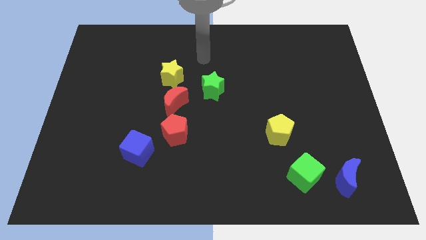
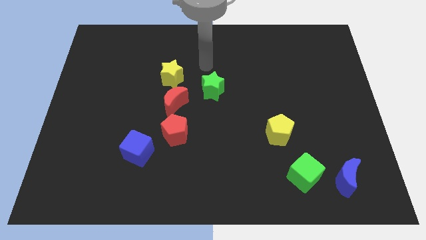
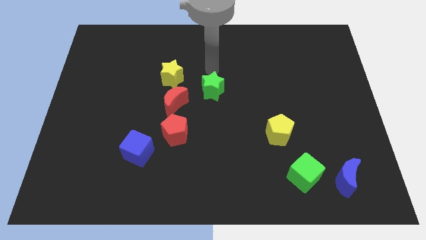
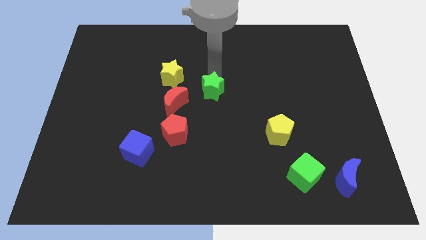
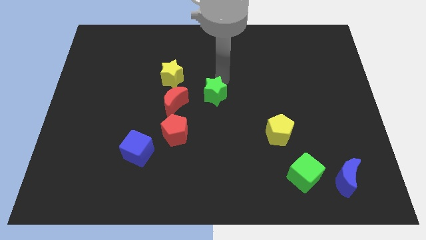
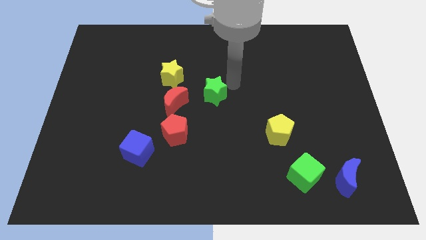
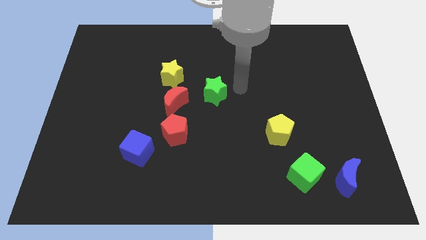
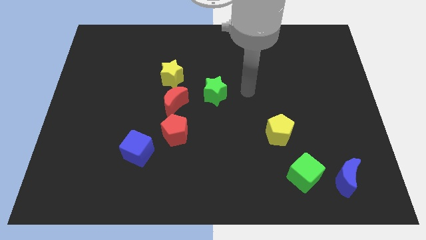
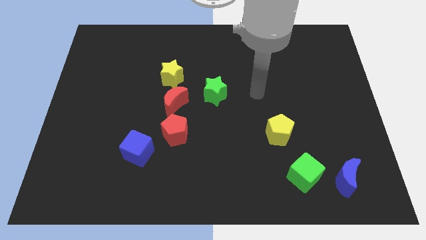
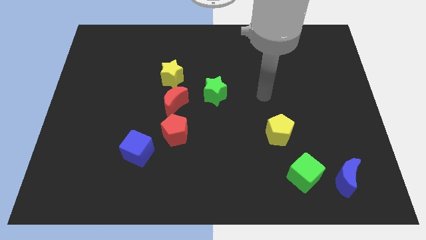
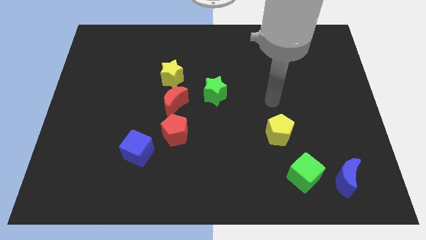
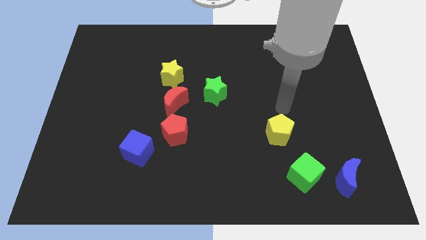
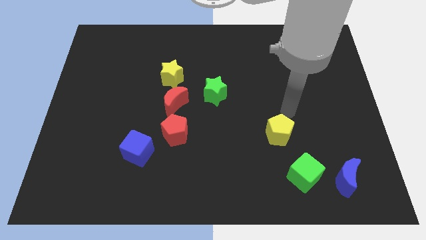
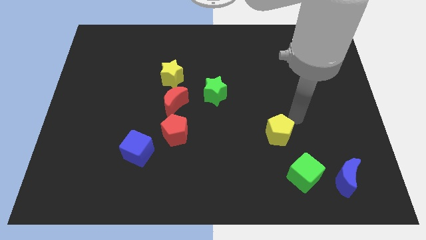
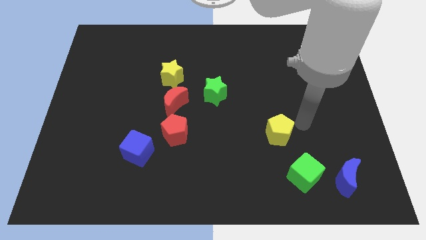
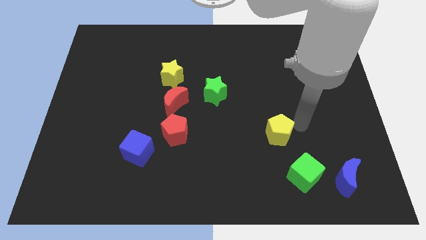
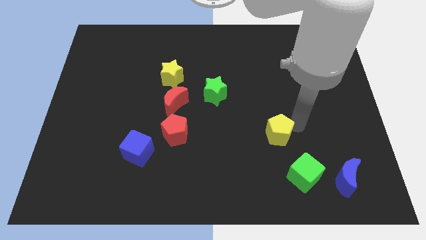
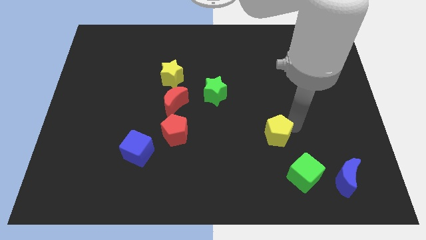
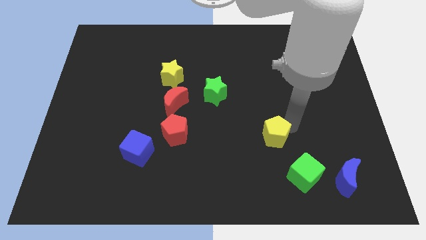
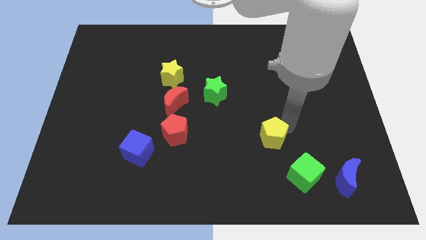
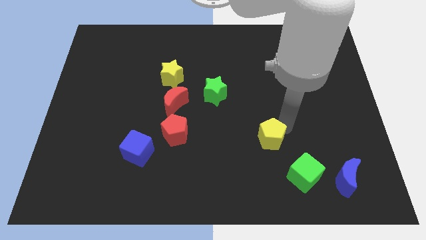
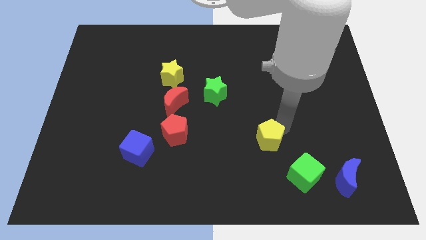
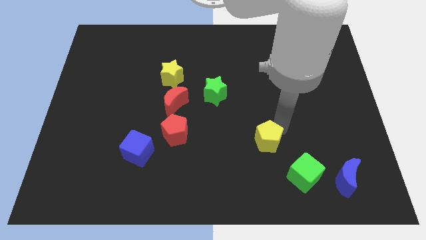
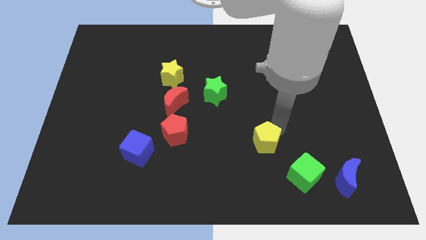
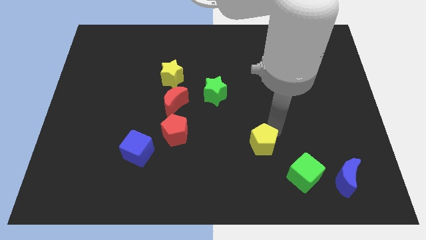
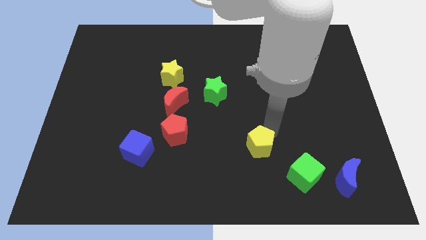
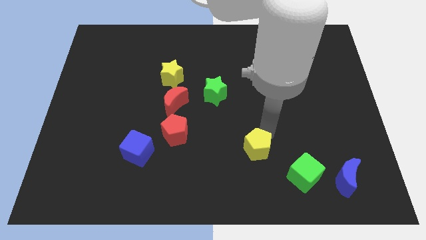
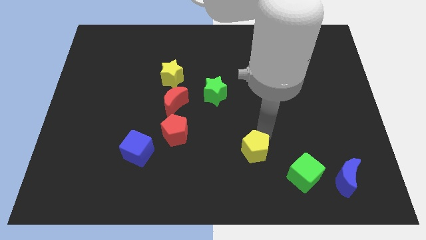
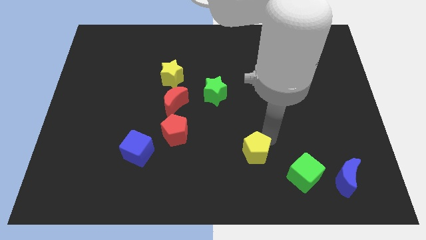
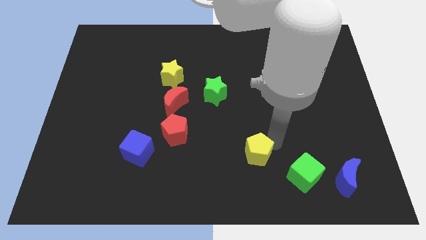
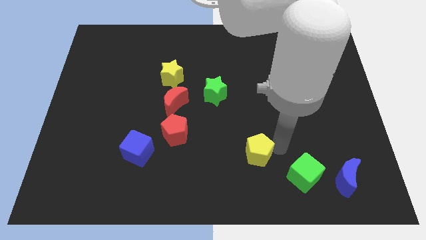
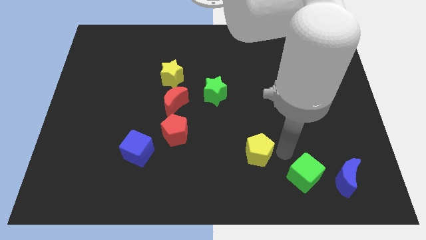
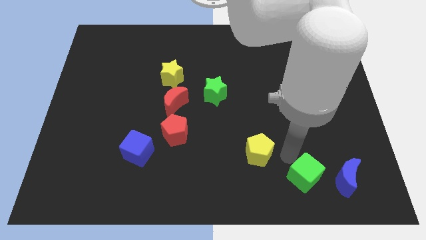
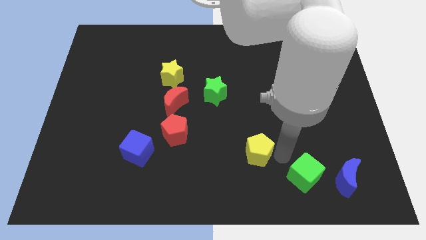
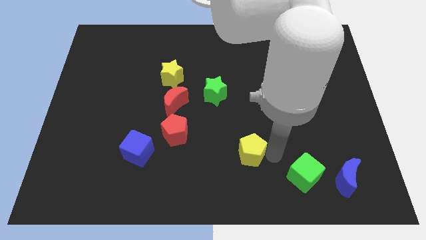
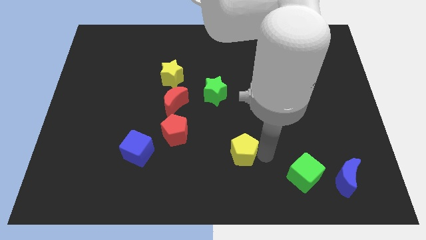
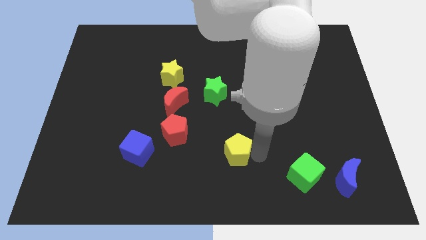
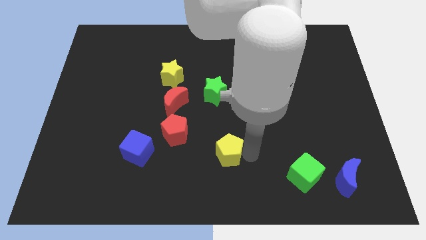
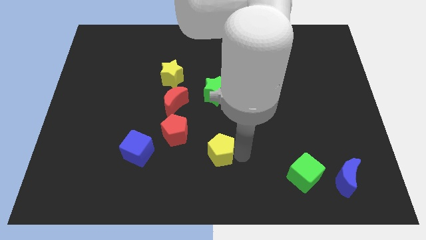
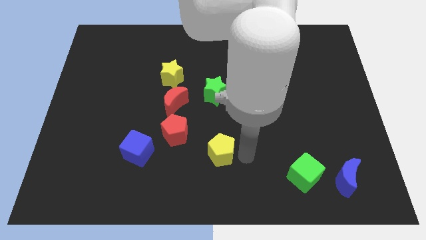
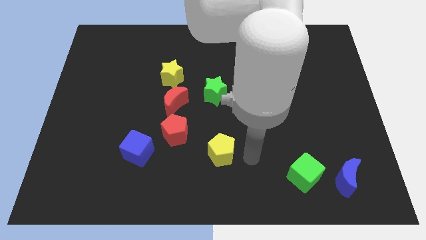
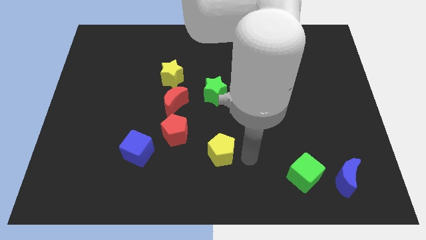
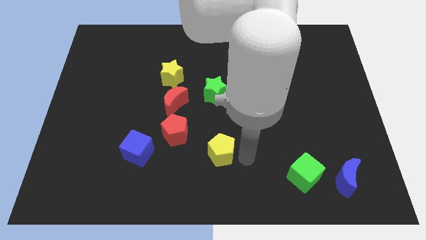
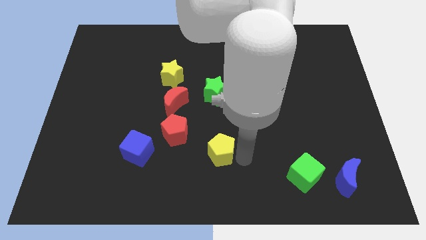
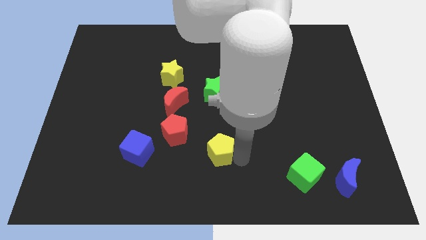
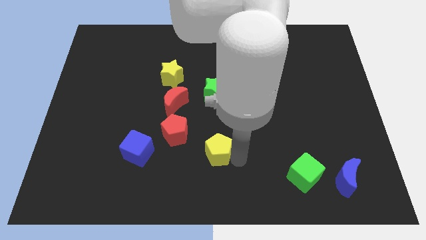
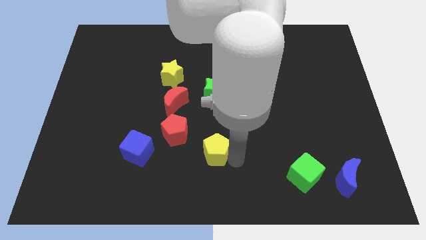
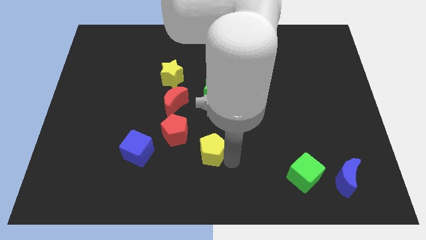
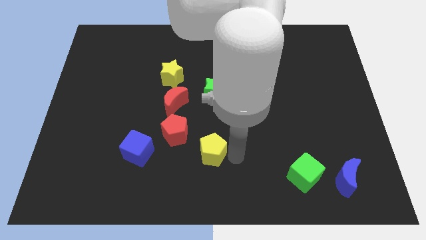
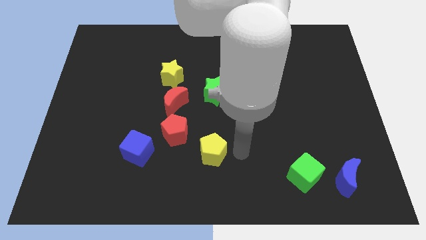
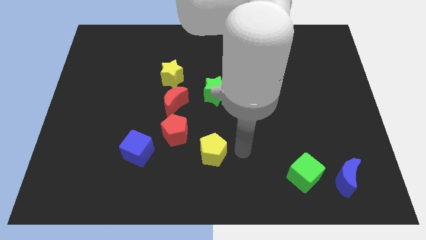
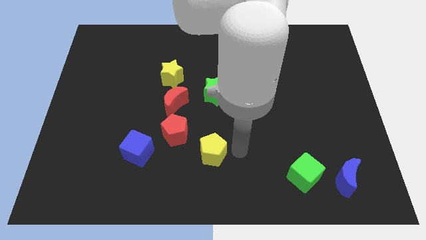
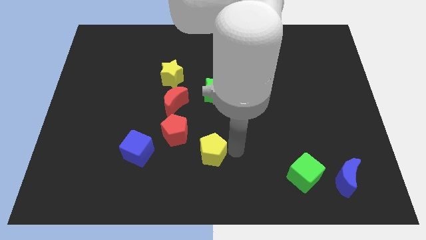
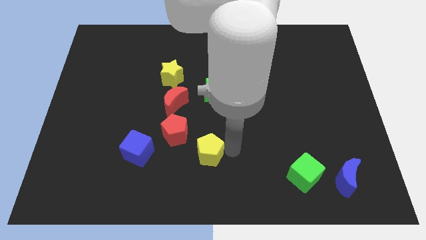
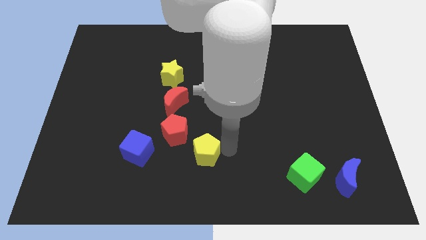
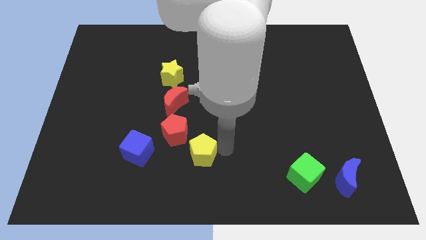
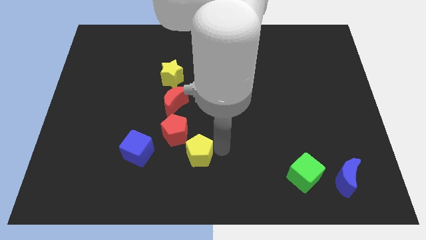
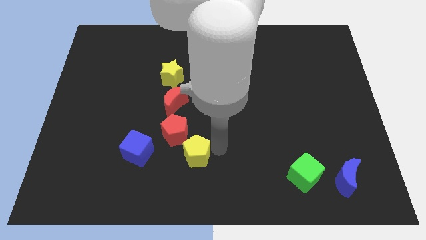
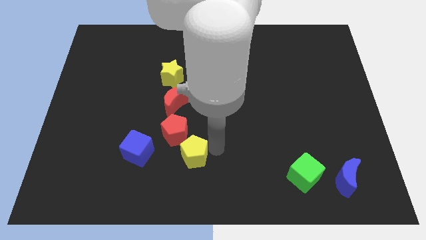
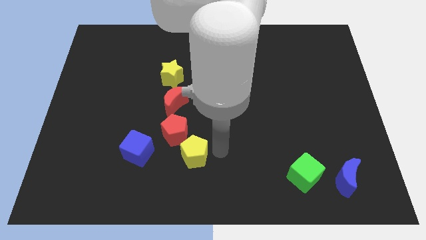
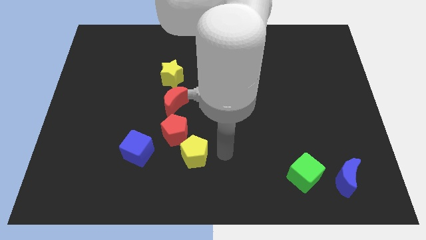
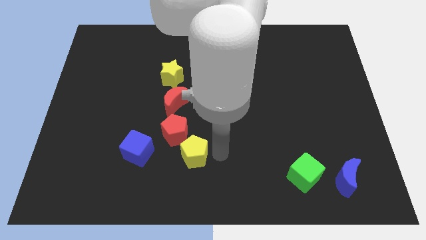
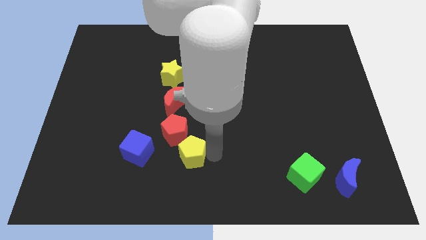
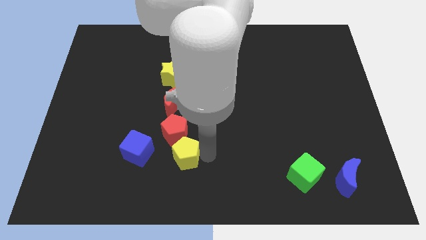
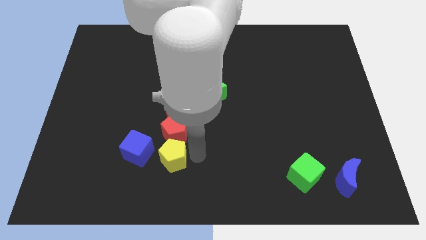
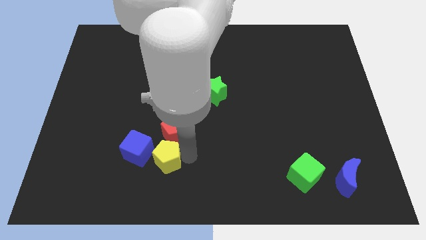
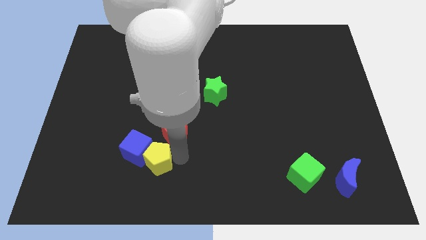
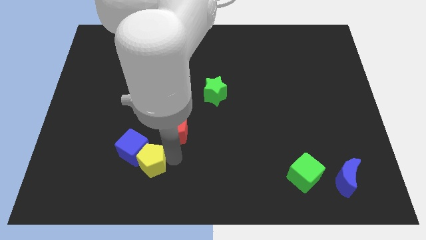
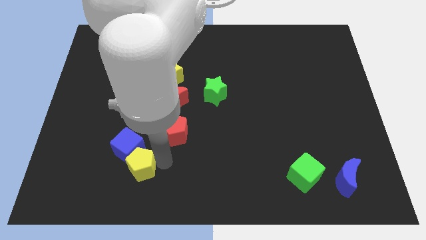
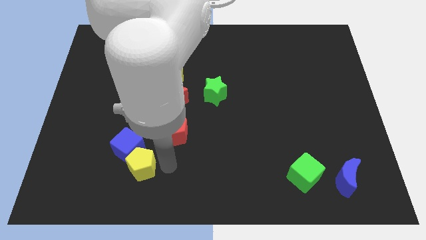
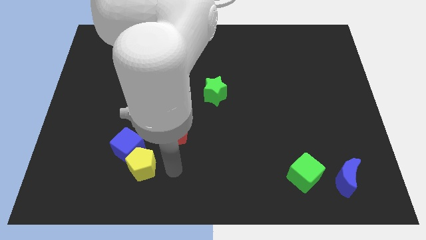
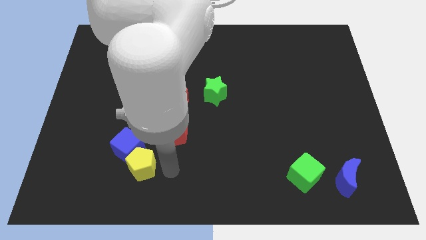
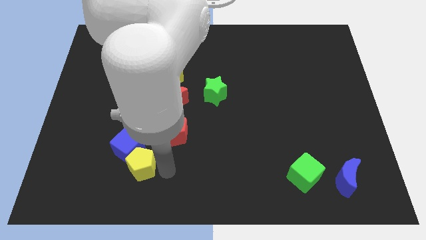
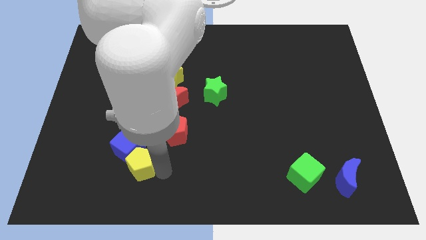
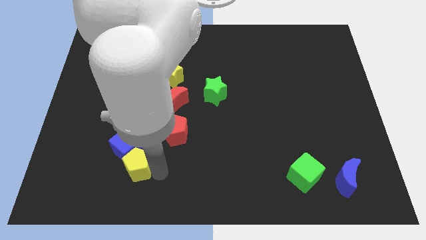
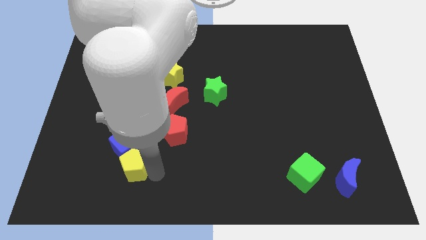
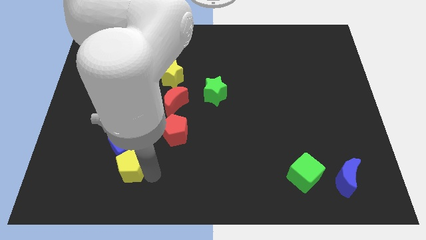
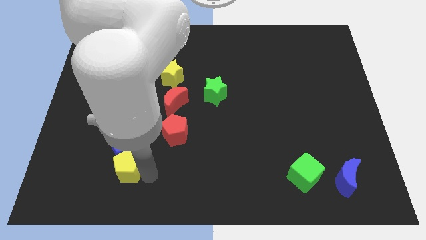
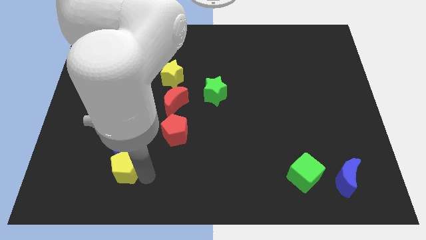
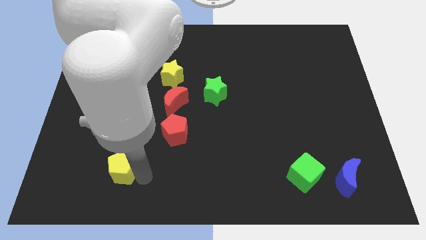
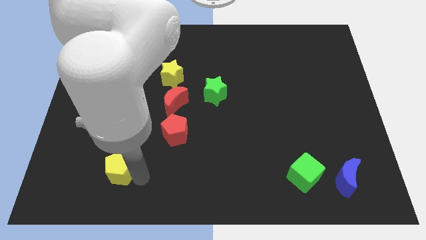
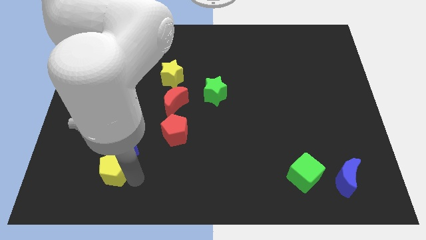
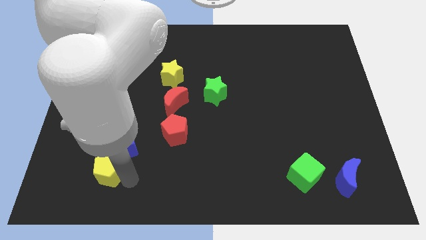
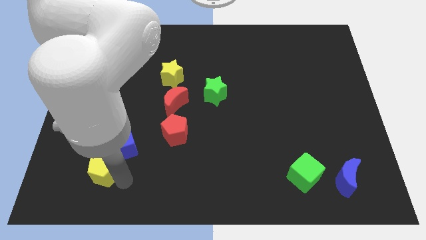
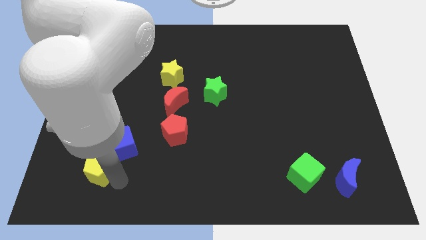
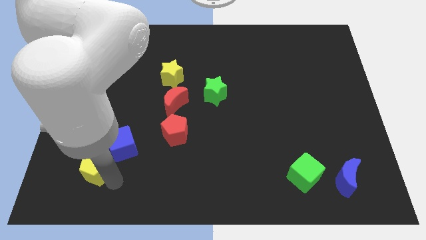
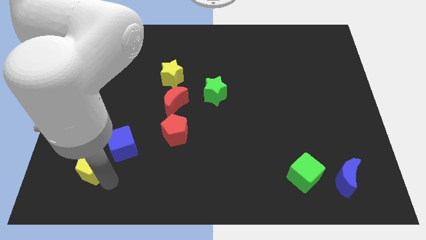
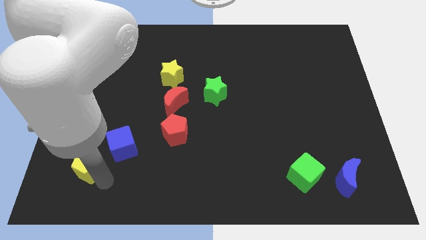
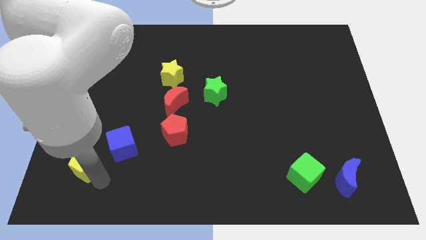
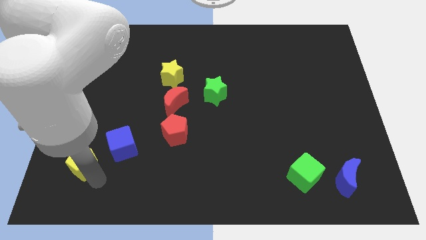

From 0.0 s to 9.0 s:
push the yellow pentagon just left of the blue cube
